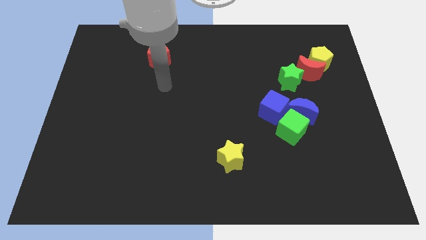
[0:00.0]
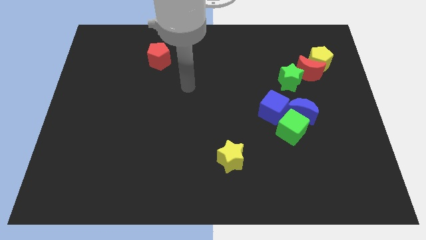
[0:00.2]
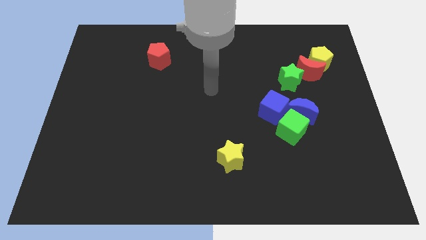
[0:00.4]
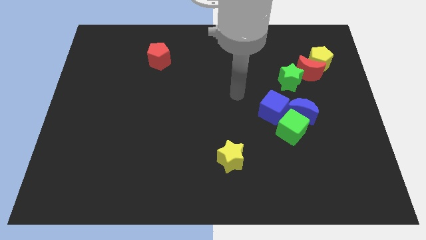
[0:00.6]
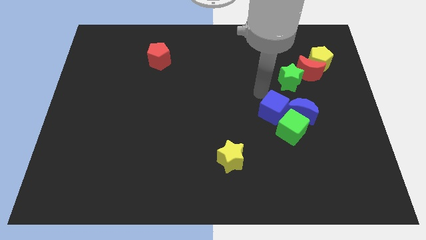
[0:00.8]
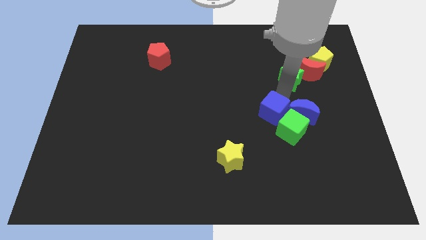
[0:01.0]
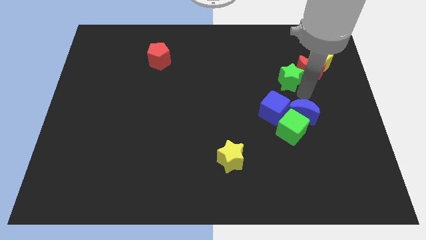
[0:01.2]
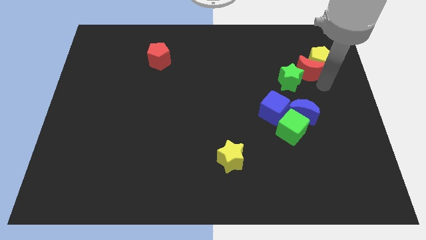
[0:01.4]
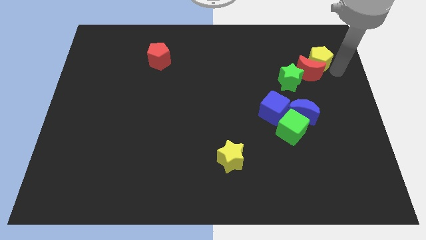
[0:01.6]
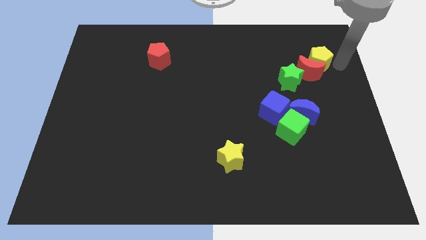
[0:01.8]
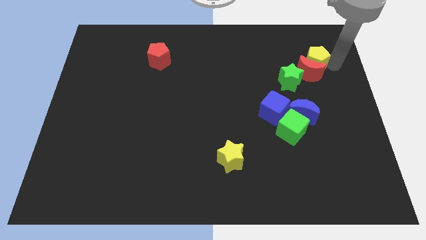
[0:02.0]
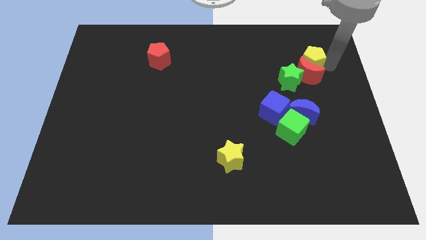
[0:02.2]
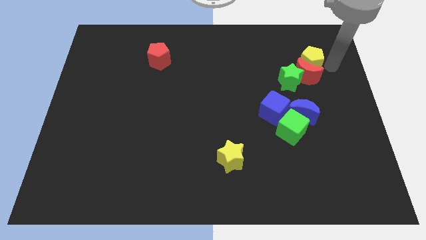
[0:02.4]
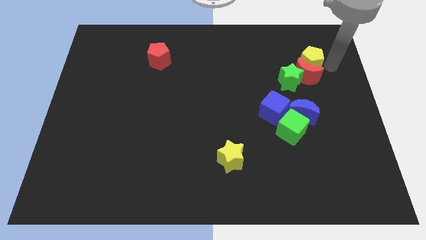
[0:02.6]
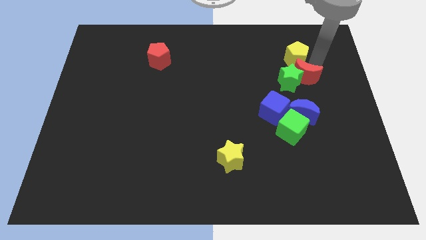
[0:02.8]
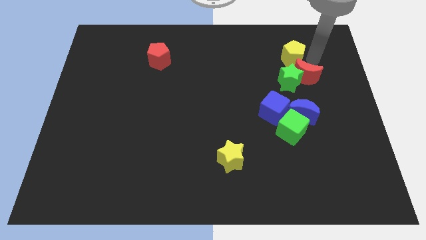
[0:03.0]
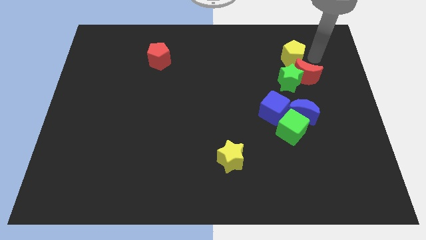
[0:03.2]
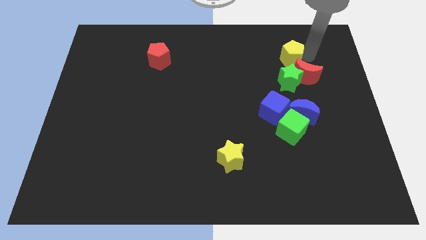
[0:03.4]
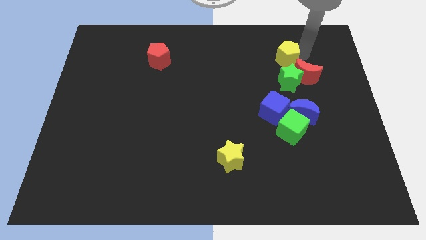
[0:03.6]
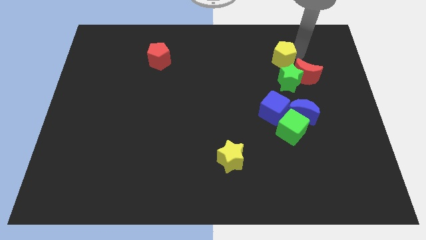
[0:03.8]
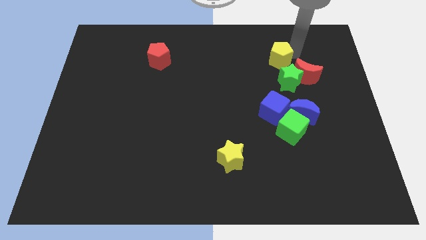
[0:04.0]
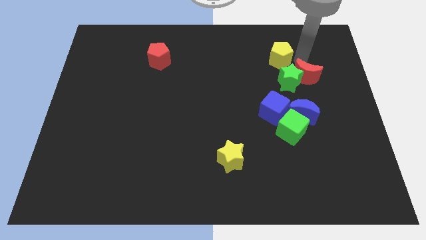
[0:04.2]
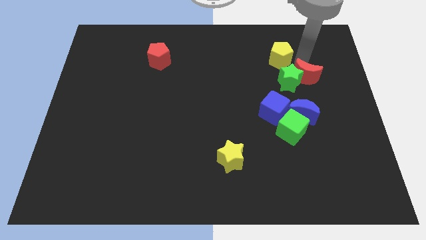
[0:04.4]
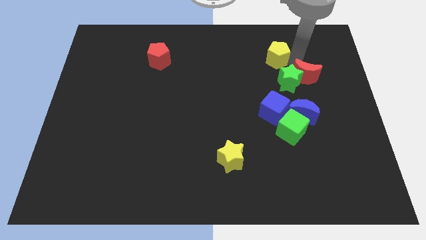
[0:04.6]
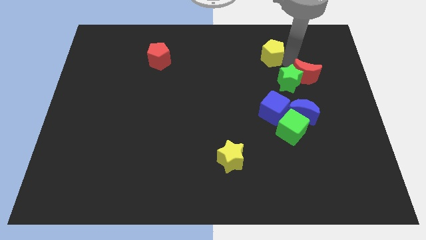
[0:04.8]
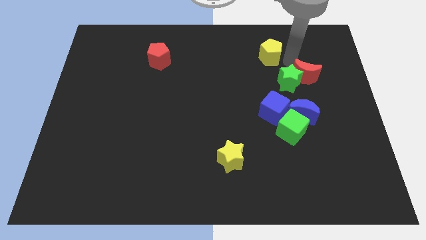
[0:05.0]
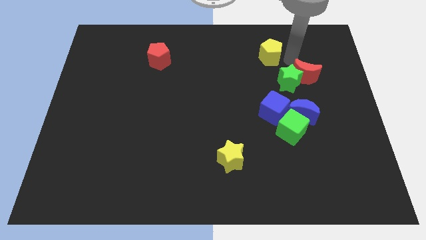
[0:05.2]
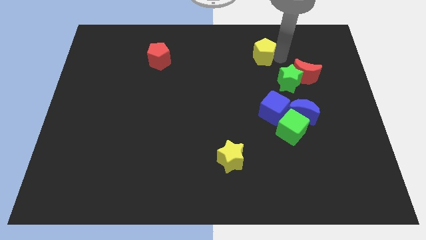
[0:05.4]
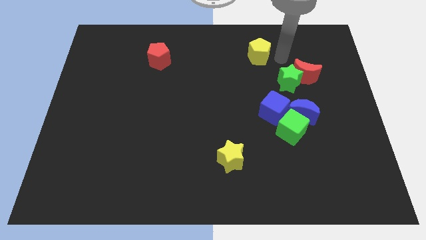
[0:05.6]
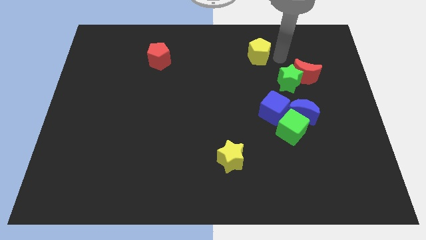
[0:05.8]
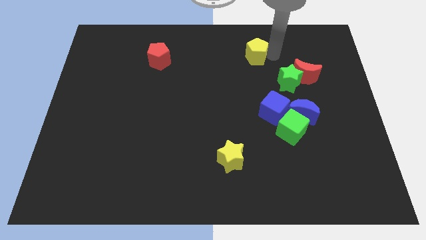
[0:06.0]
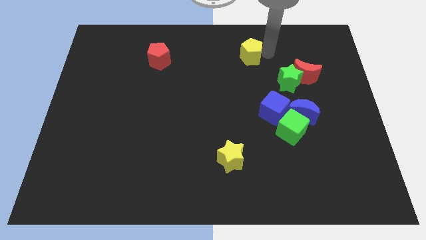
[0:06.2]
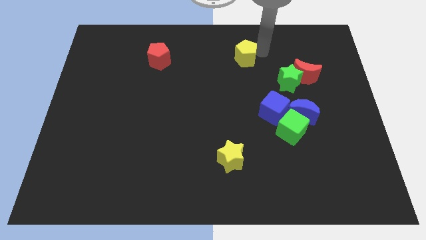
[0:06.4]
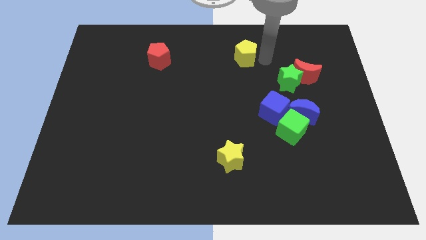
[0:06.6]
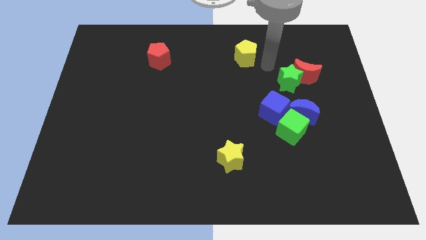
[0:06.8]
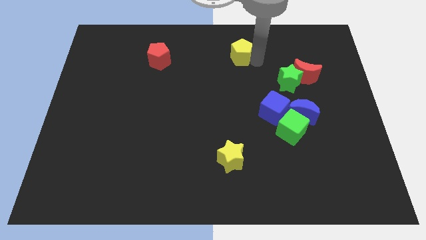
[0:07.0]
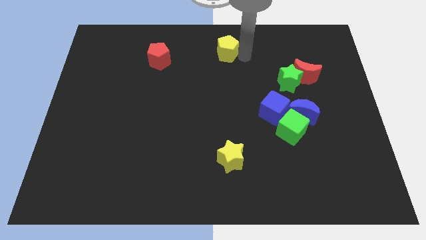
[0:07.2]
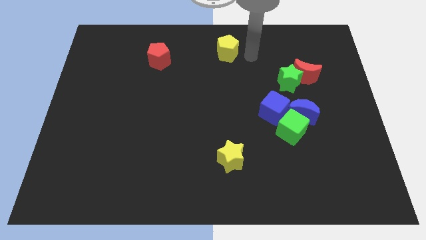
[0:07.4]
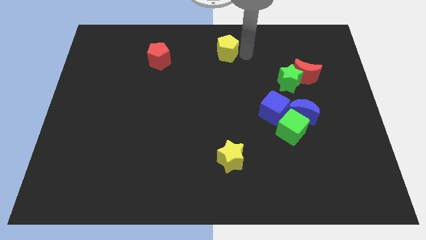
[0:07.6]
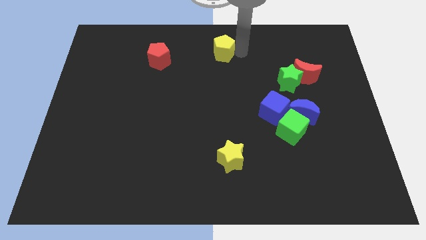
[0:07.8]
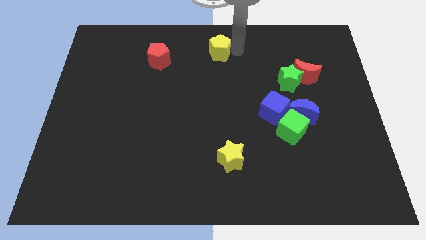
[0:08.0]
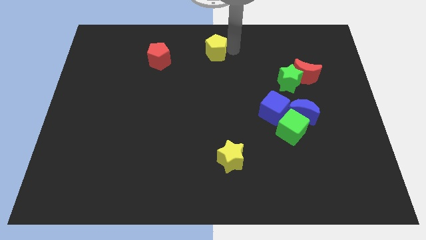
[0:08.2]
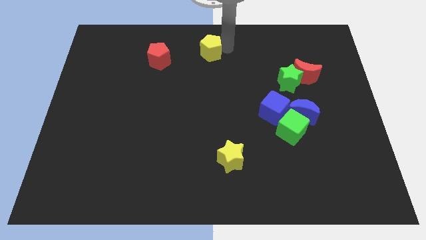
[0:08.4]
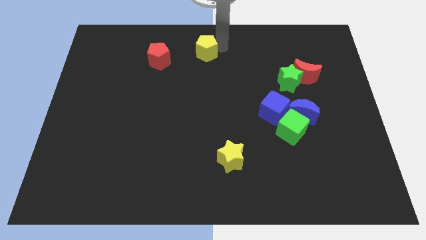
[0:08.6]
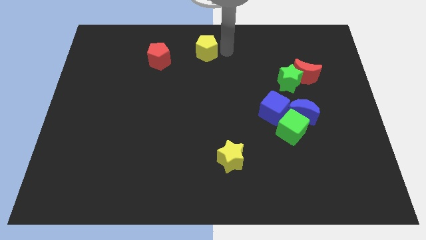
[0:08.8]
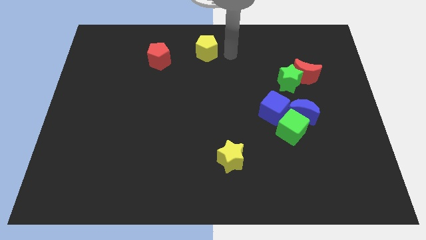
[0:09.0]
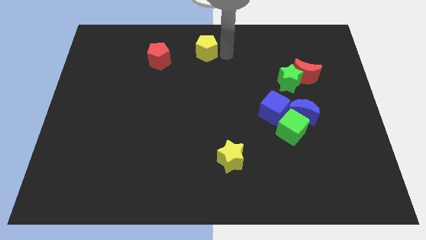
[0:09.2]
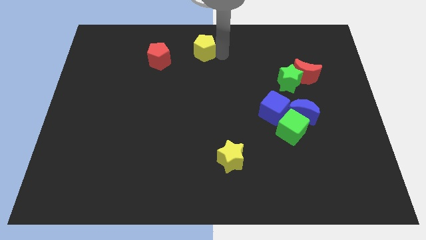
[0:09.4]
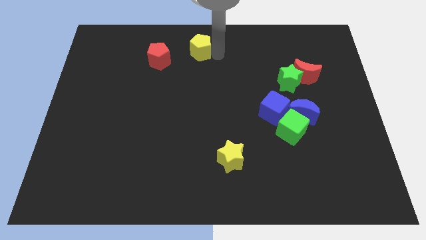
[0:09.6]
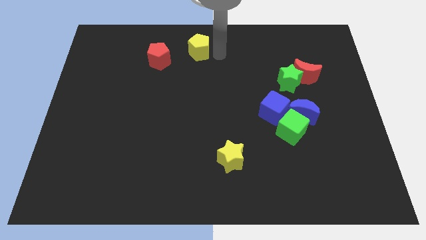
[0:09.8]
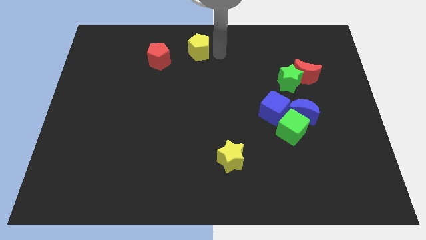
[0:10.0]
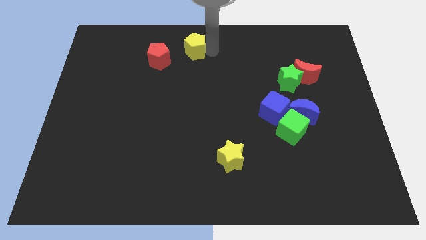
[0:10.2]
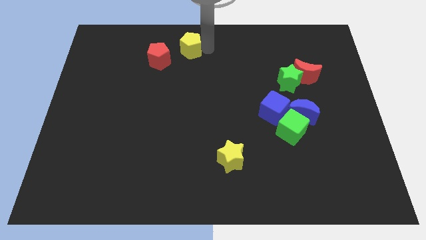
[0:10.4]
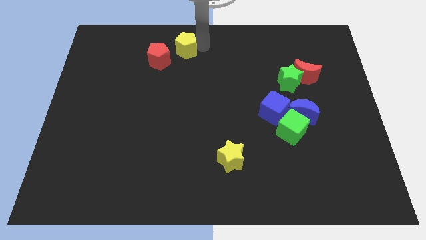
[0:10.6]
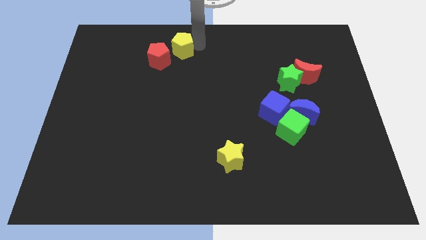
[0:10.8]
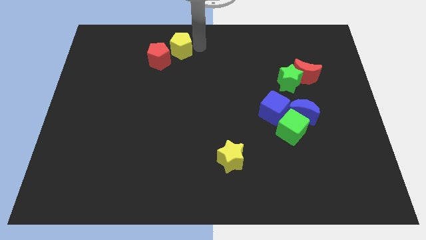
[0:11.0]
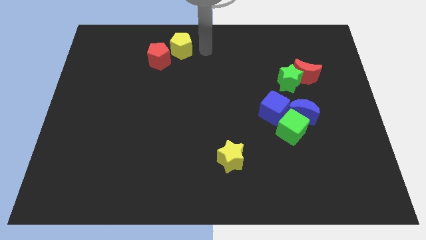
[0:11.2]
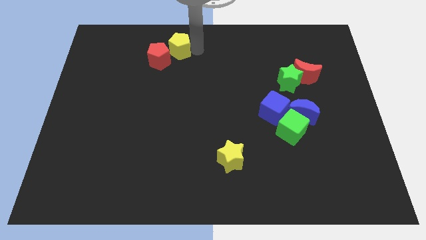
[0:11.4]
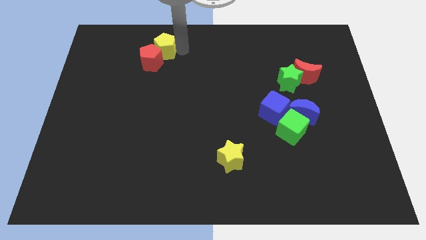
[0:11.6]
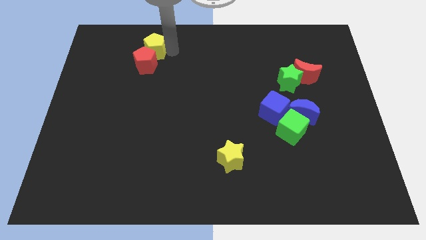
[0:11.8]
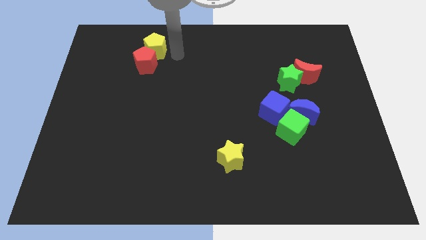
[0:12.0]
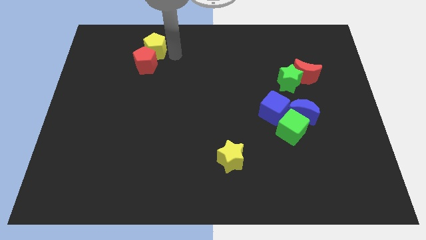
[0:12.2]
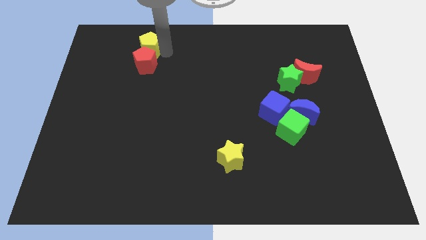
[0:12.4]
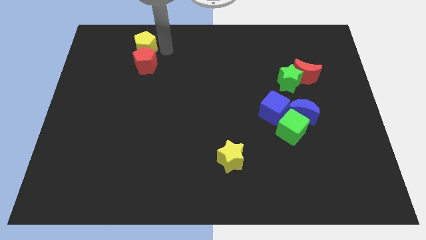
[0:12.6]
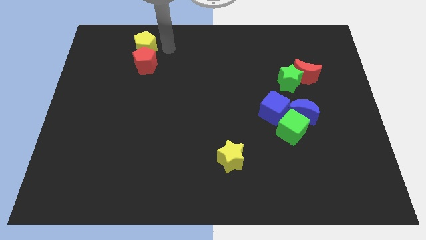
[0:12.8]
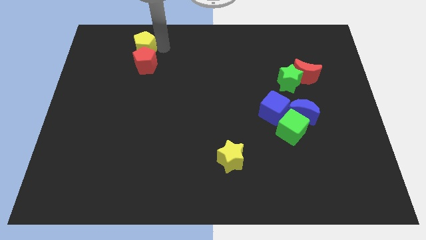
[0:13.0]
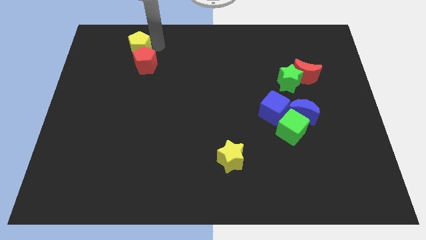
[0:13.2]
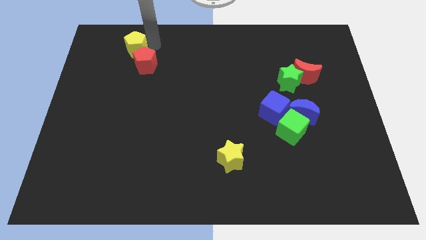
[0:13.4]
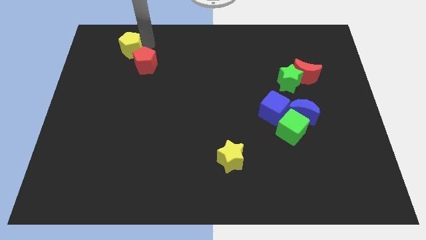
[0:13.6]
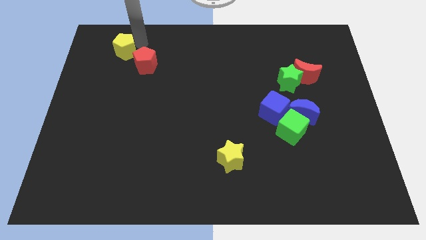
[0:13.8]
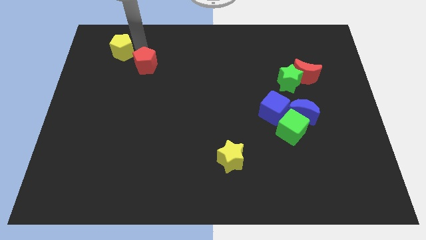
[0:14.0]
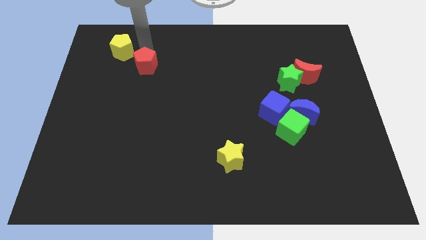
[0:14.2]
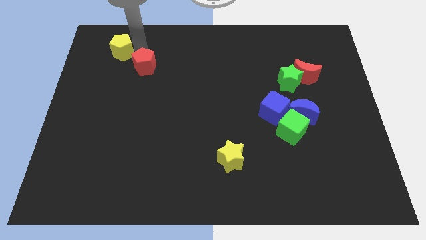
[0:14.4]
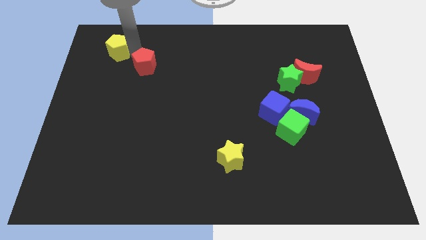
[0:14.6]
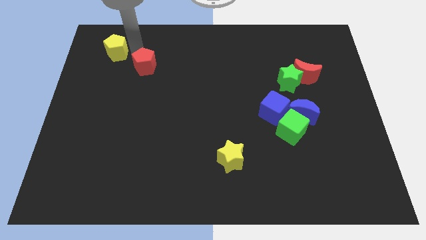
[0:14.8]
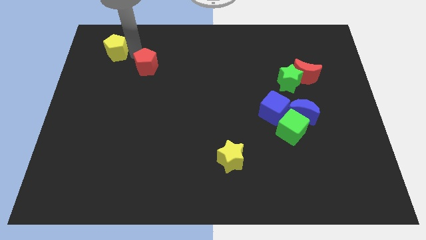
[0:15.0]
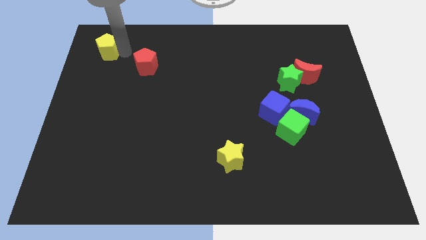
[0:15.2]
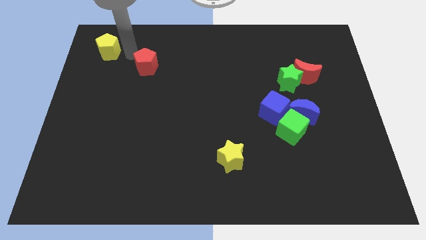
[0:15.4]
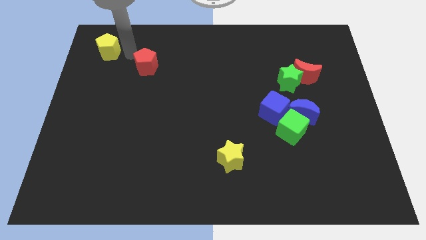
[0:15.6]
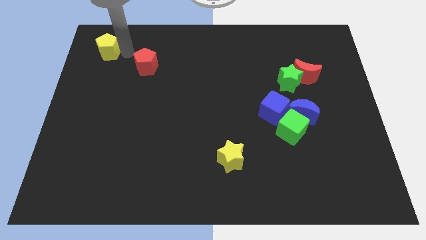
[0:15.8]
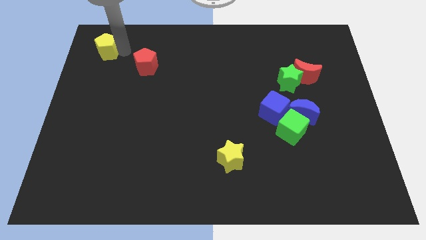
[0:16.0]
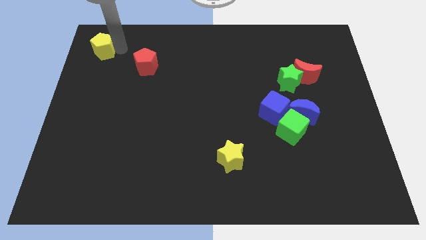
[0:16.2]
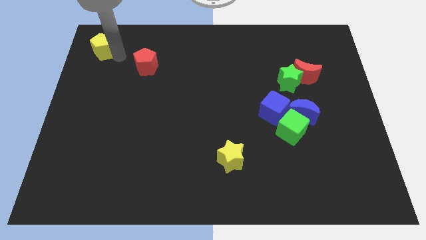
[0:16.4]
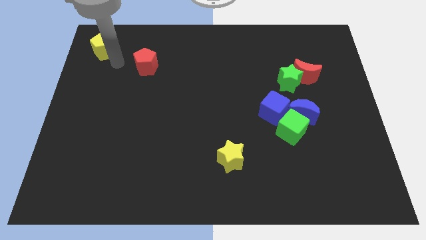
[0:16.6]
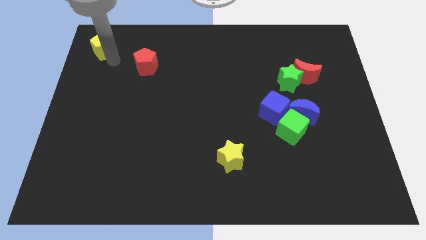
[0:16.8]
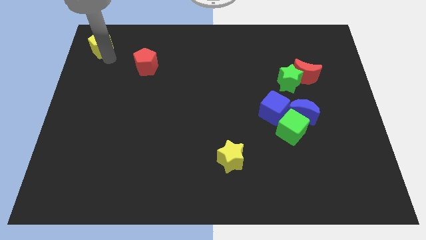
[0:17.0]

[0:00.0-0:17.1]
push the yellow pentagon to the top left corner
